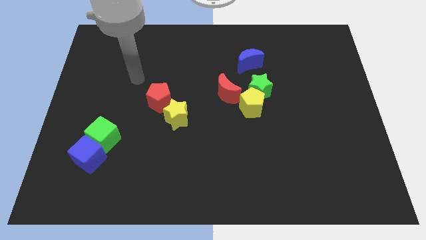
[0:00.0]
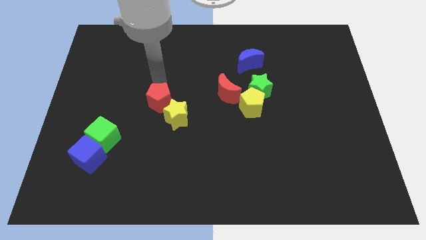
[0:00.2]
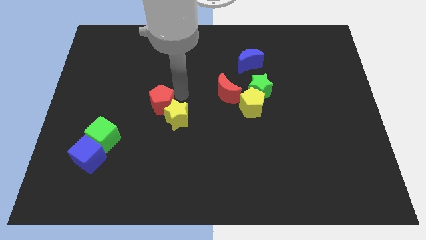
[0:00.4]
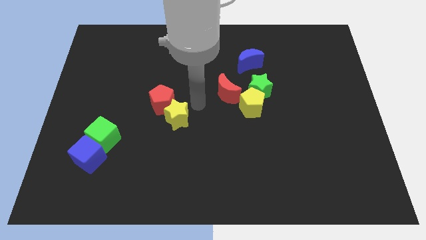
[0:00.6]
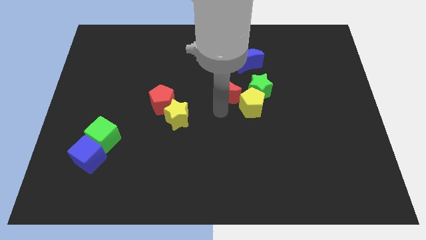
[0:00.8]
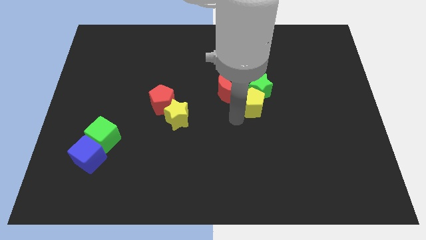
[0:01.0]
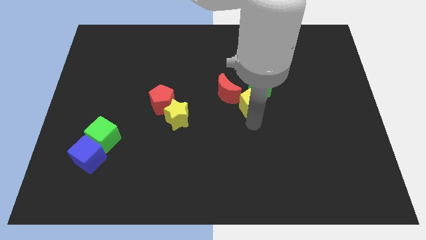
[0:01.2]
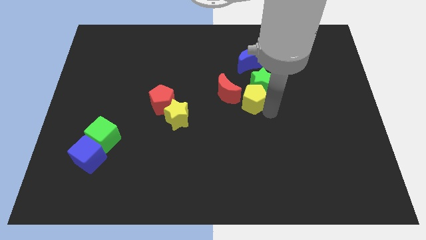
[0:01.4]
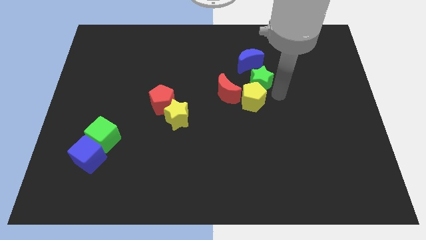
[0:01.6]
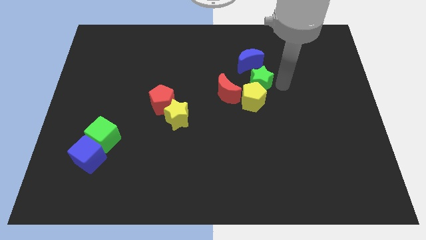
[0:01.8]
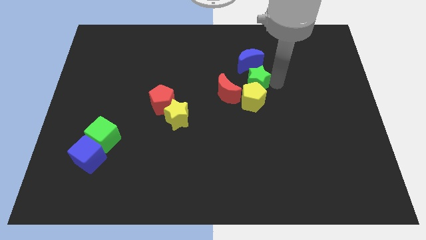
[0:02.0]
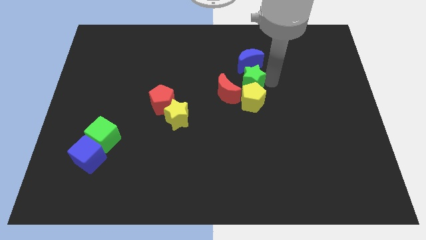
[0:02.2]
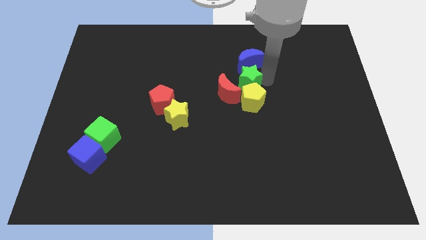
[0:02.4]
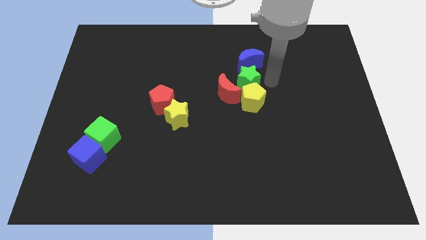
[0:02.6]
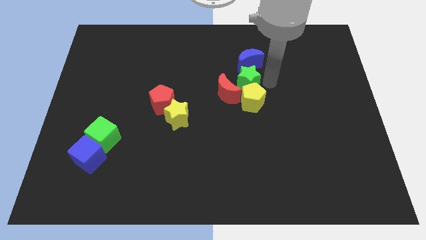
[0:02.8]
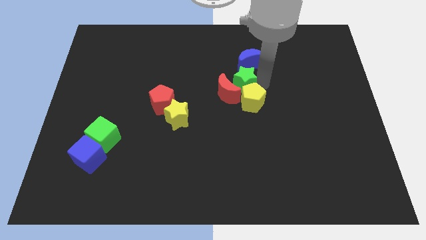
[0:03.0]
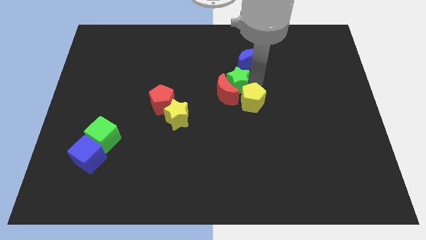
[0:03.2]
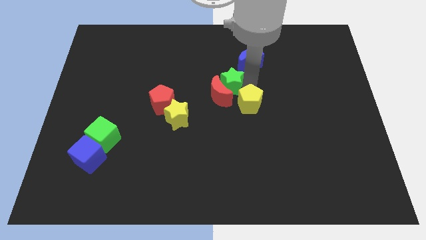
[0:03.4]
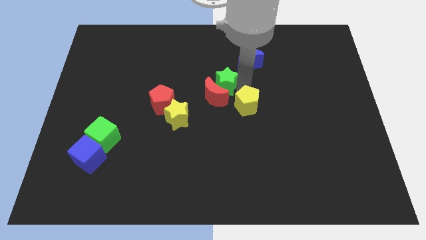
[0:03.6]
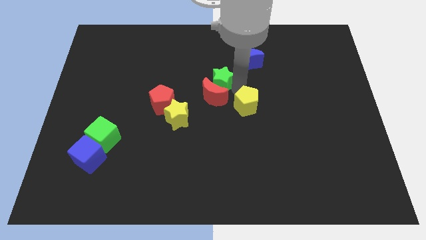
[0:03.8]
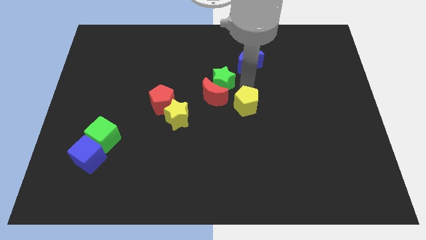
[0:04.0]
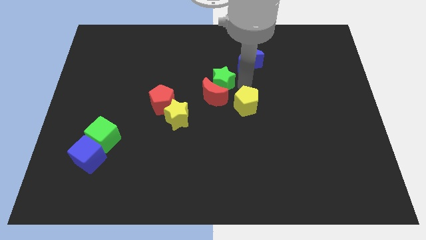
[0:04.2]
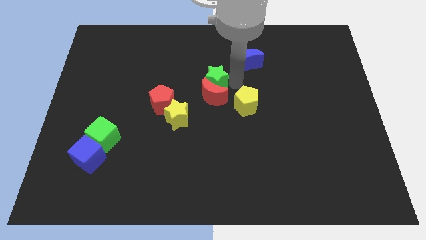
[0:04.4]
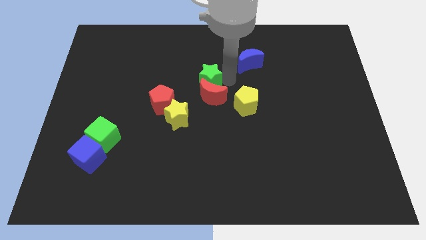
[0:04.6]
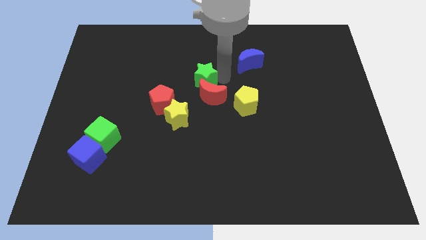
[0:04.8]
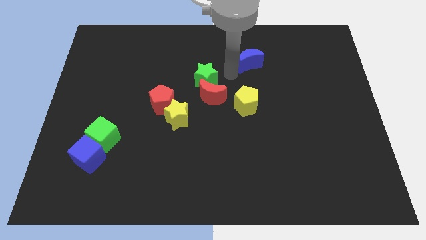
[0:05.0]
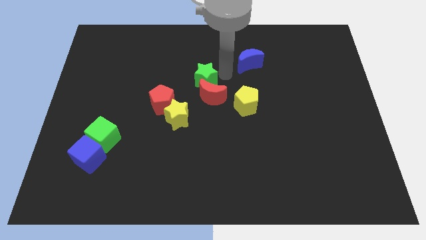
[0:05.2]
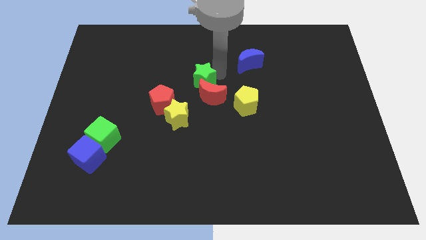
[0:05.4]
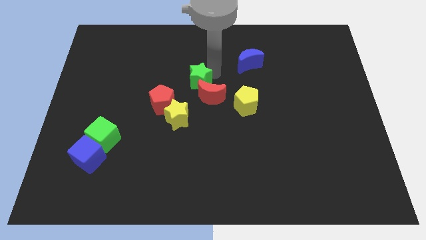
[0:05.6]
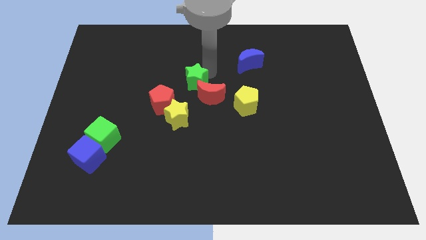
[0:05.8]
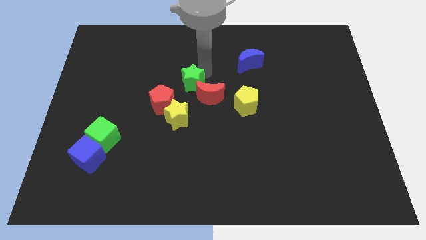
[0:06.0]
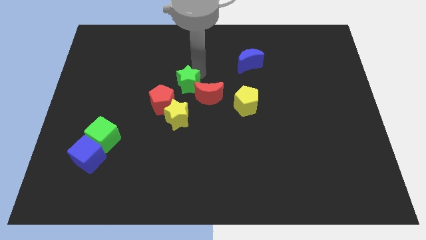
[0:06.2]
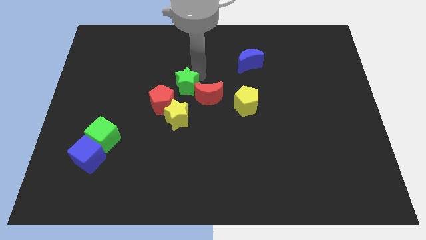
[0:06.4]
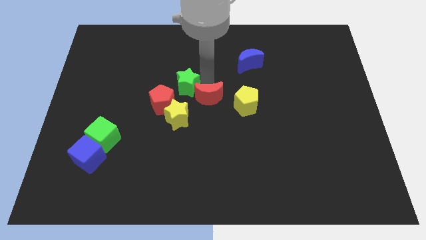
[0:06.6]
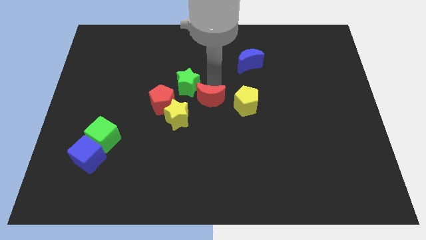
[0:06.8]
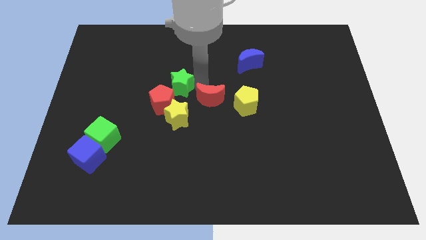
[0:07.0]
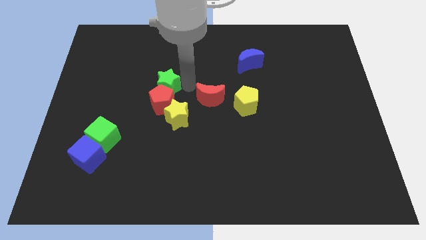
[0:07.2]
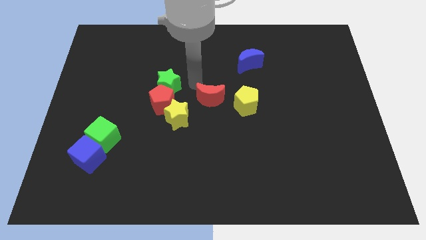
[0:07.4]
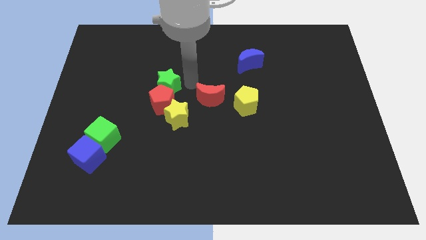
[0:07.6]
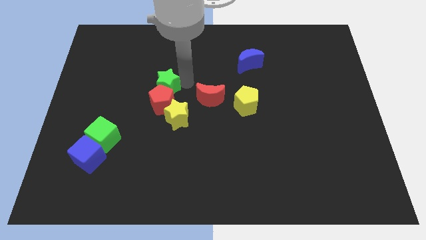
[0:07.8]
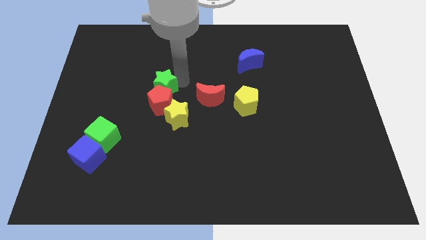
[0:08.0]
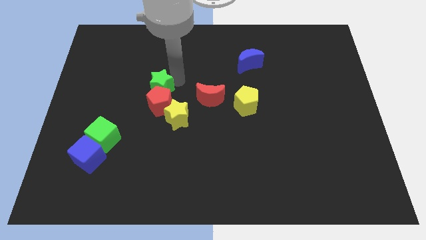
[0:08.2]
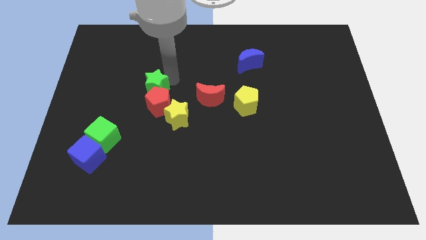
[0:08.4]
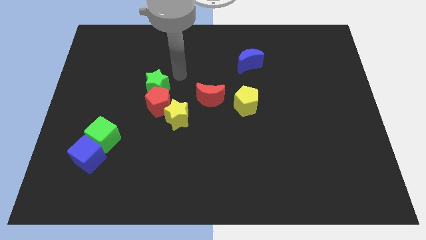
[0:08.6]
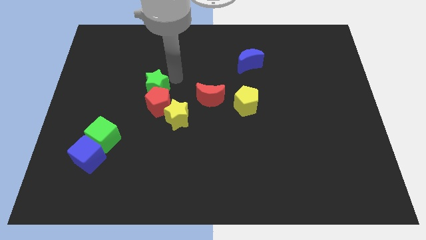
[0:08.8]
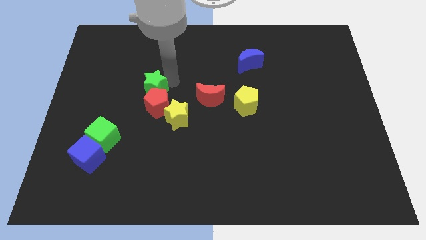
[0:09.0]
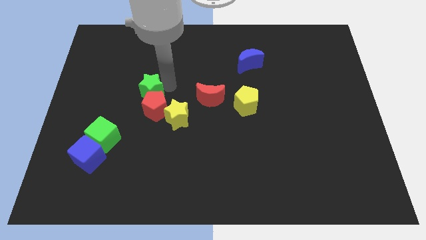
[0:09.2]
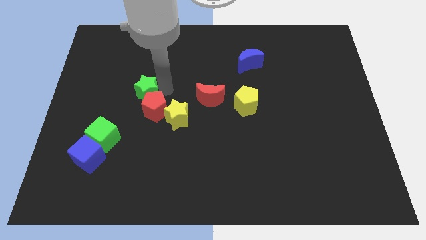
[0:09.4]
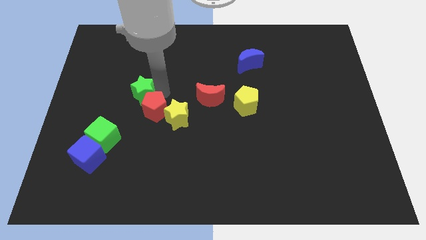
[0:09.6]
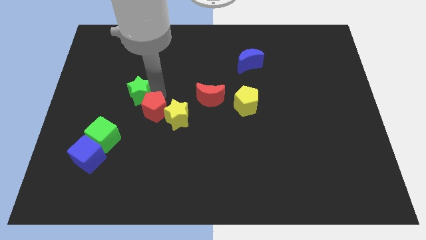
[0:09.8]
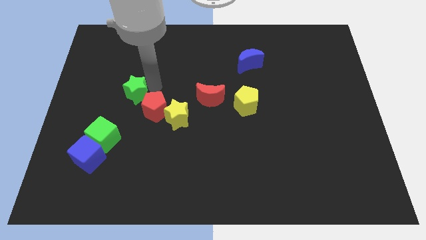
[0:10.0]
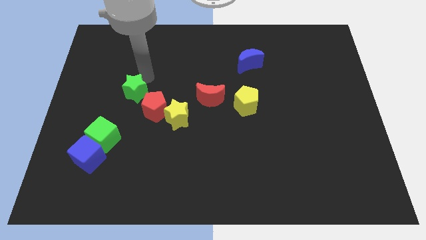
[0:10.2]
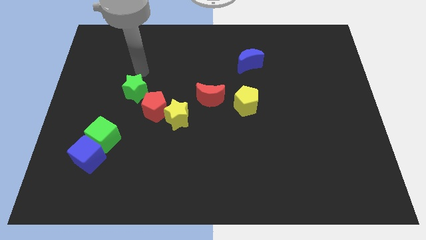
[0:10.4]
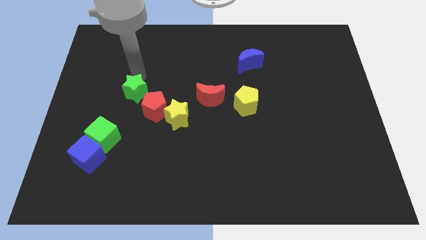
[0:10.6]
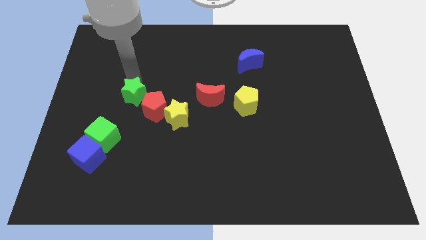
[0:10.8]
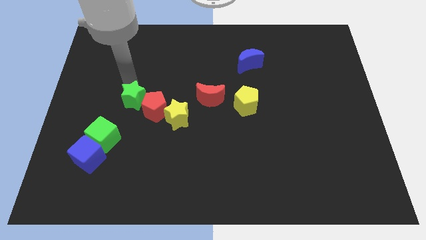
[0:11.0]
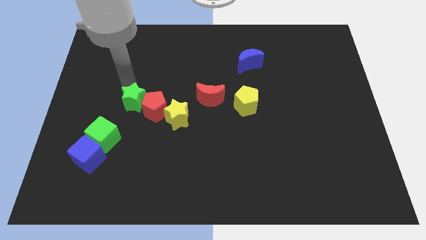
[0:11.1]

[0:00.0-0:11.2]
move the green star to the top right side of the green cube

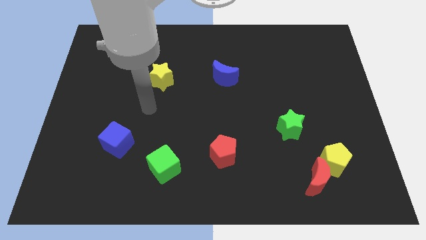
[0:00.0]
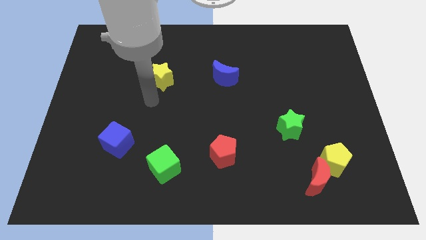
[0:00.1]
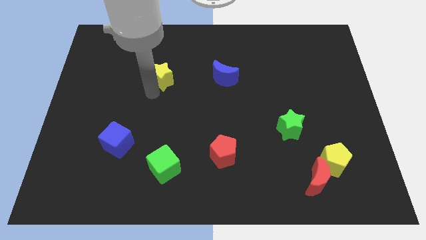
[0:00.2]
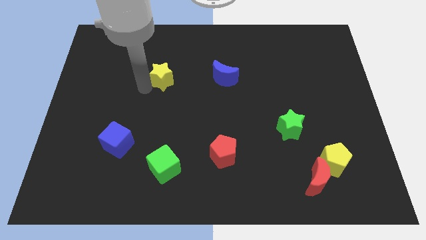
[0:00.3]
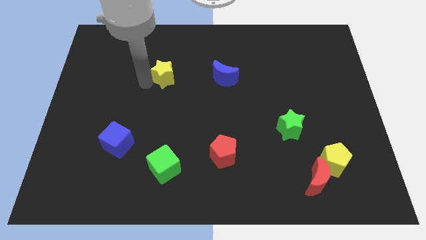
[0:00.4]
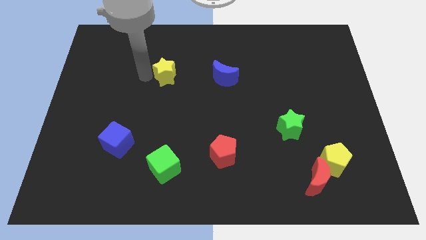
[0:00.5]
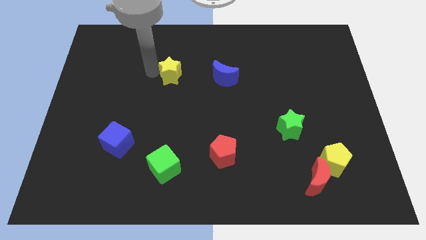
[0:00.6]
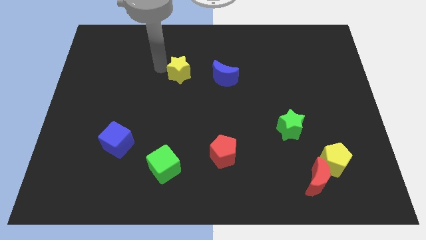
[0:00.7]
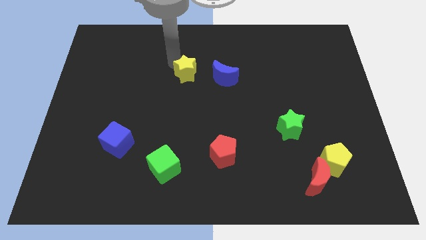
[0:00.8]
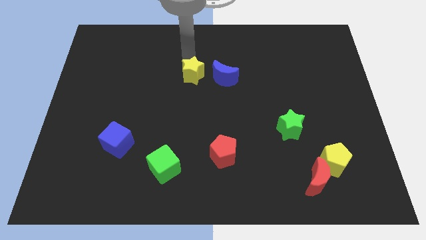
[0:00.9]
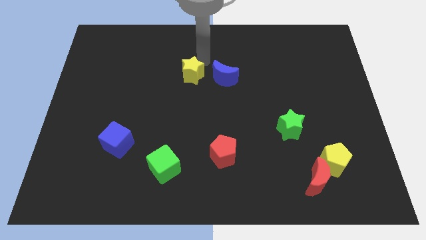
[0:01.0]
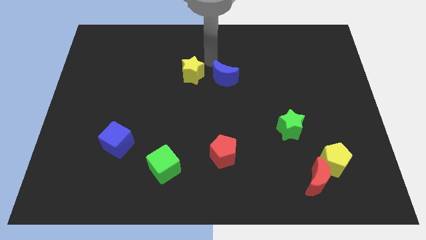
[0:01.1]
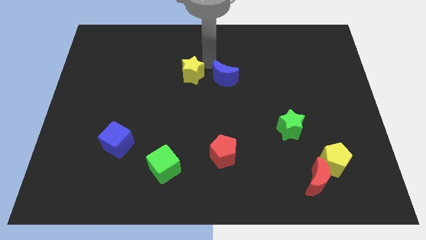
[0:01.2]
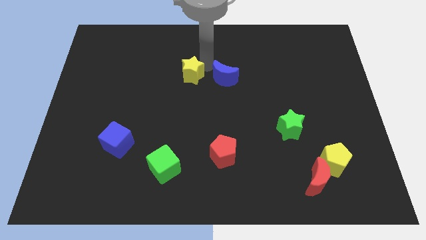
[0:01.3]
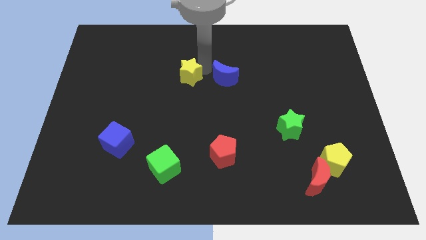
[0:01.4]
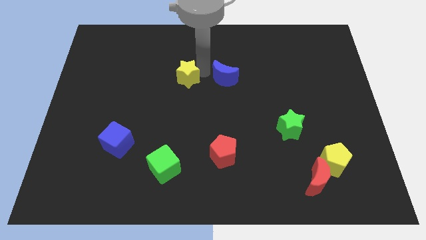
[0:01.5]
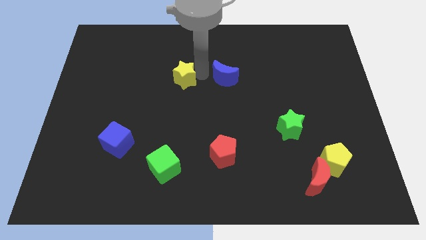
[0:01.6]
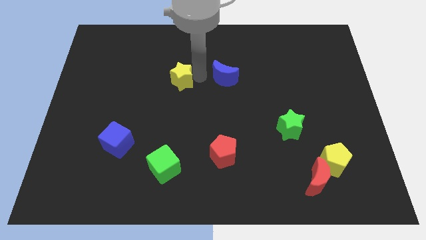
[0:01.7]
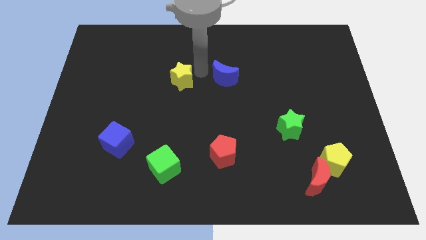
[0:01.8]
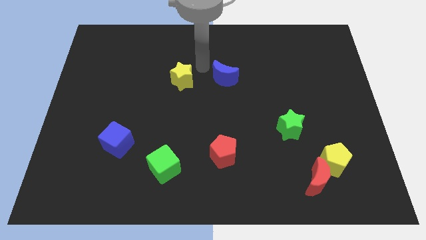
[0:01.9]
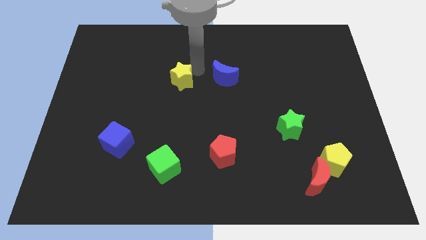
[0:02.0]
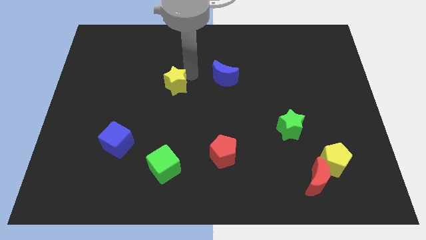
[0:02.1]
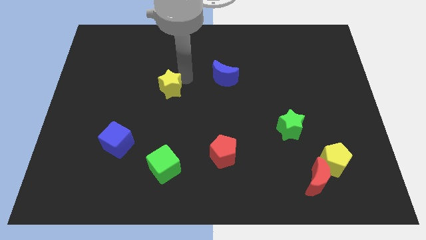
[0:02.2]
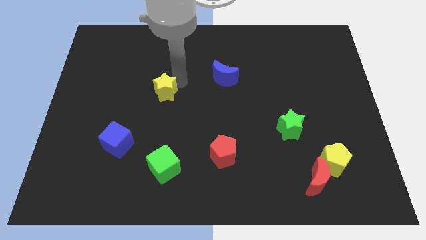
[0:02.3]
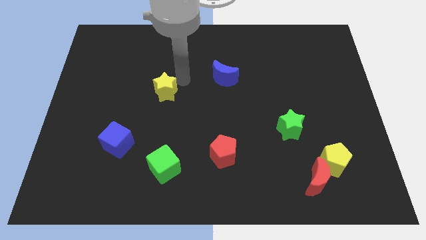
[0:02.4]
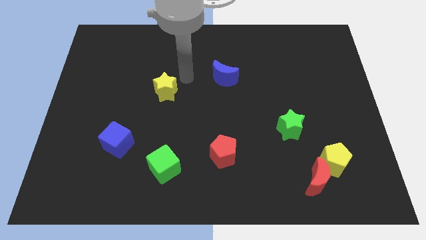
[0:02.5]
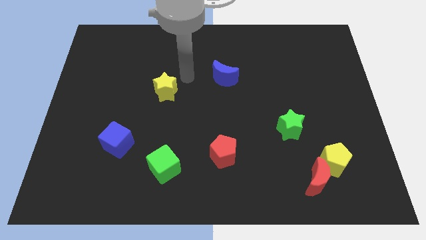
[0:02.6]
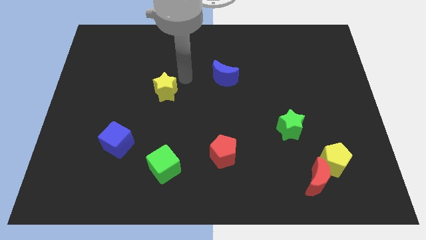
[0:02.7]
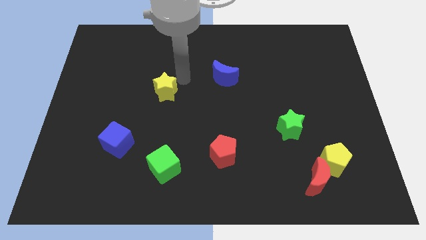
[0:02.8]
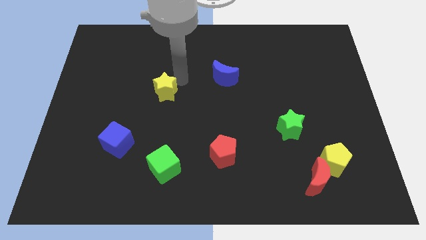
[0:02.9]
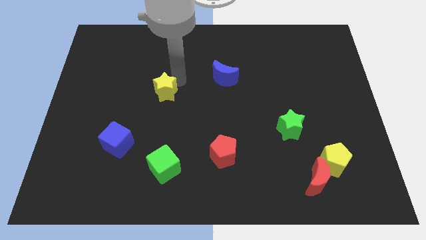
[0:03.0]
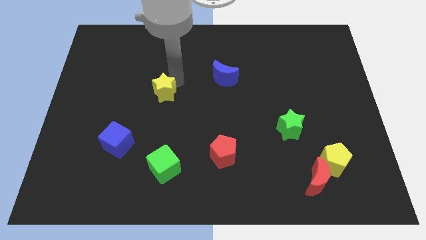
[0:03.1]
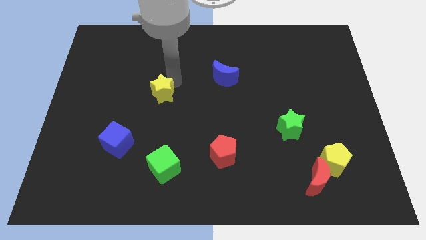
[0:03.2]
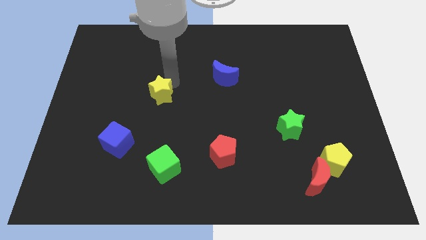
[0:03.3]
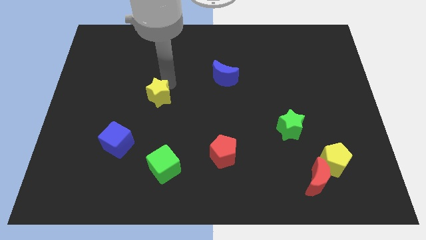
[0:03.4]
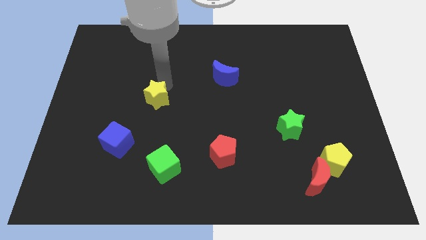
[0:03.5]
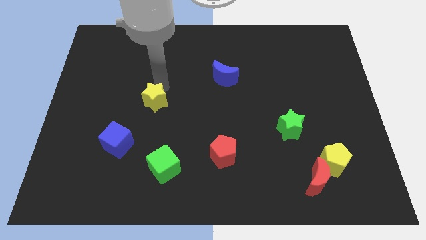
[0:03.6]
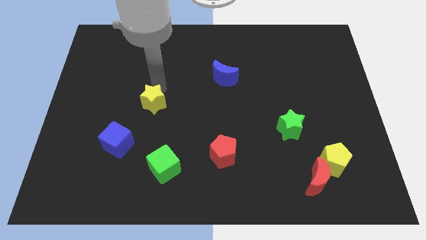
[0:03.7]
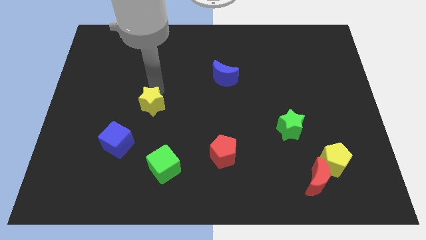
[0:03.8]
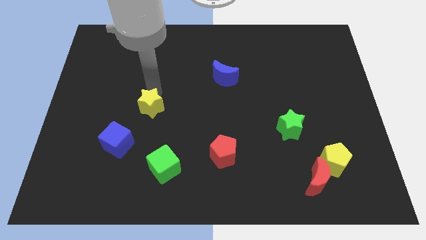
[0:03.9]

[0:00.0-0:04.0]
push the yellow star to the top right of the blue cube
